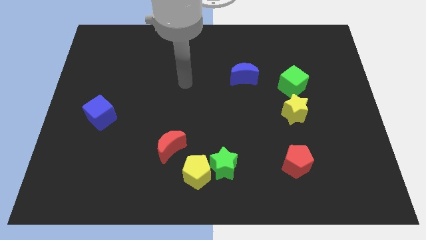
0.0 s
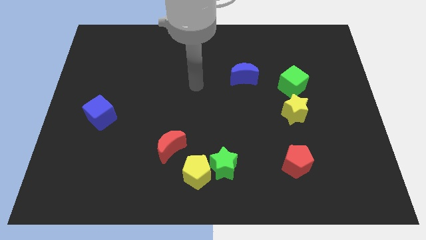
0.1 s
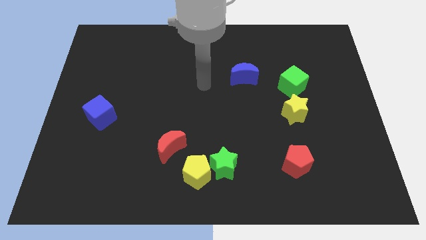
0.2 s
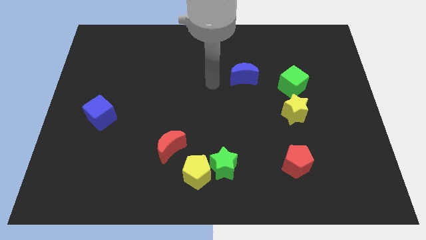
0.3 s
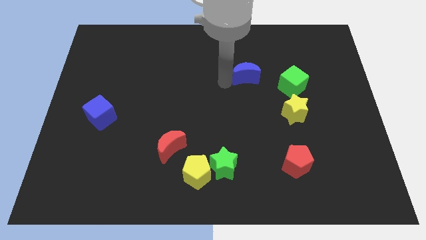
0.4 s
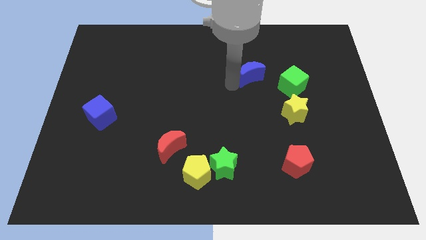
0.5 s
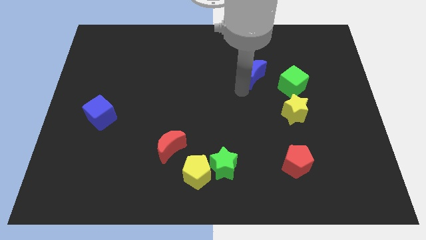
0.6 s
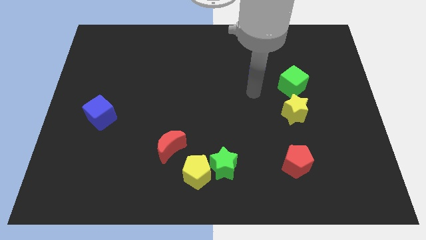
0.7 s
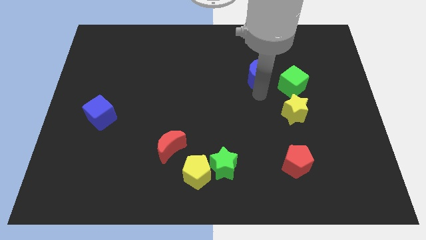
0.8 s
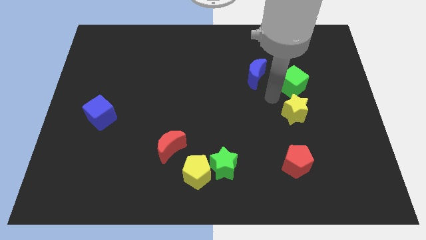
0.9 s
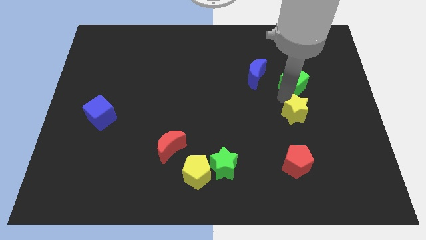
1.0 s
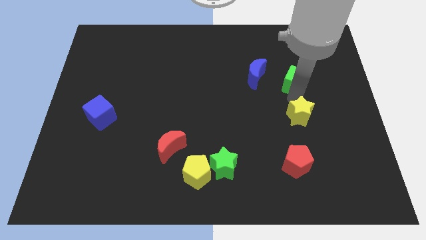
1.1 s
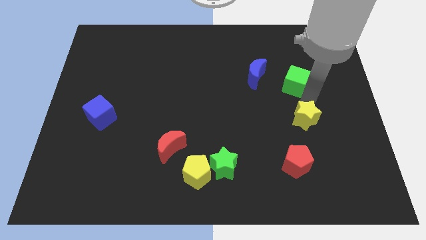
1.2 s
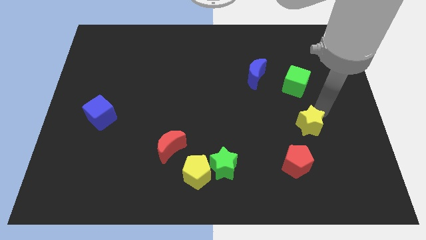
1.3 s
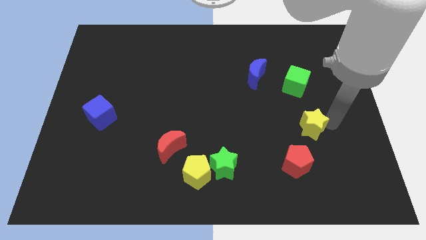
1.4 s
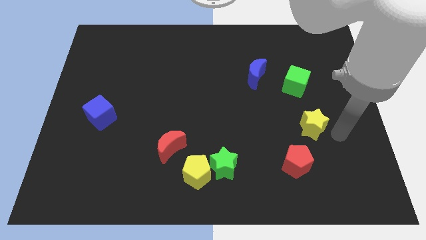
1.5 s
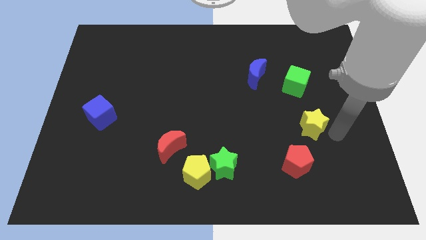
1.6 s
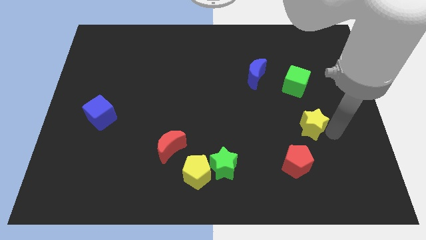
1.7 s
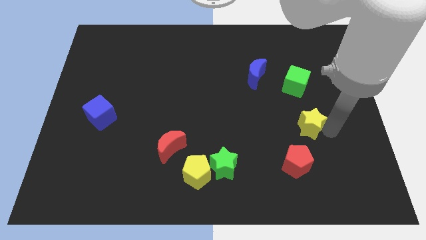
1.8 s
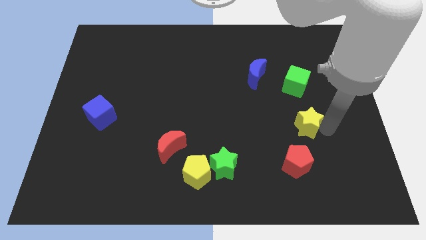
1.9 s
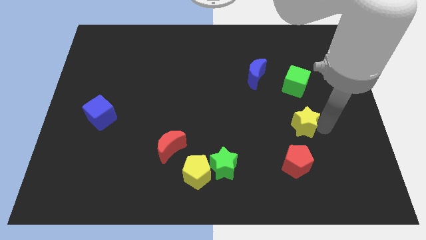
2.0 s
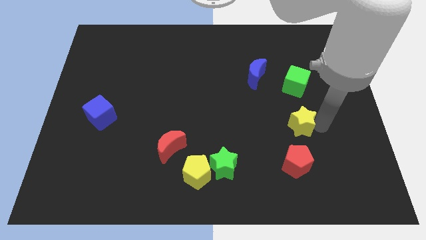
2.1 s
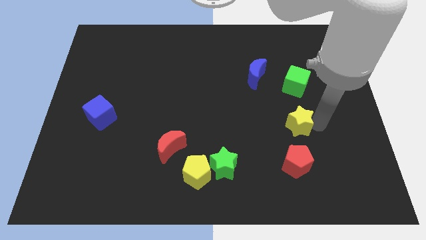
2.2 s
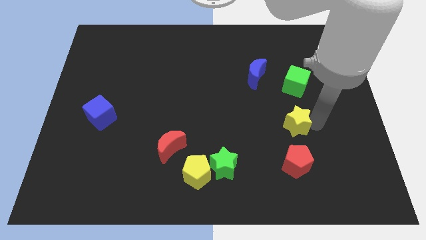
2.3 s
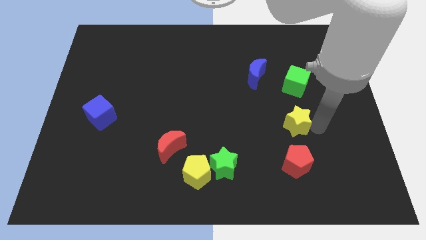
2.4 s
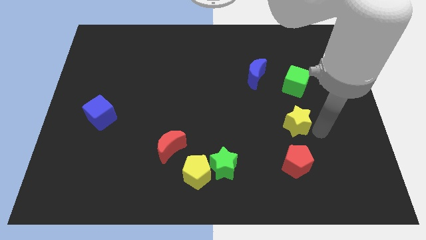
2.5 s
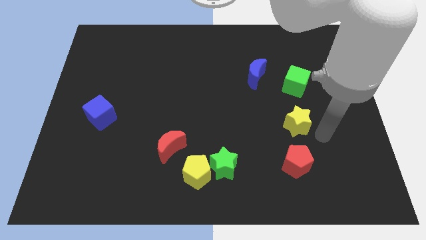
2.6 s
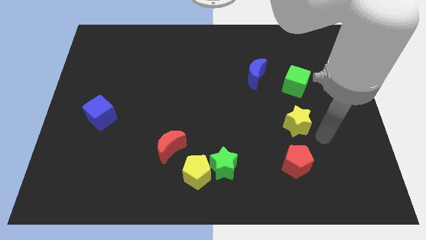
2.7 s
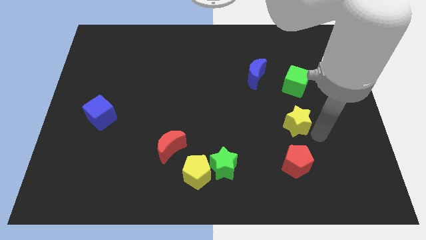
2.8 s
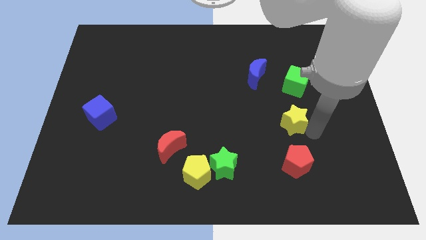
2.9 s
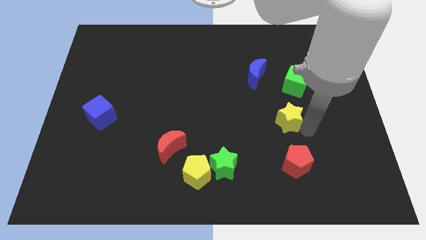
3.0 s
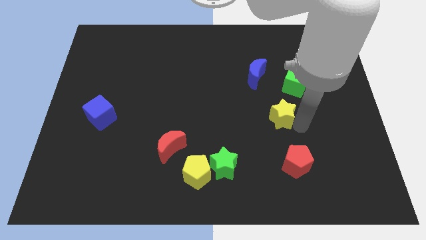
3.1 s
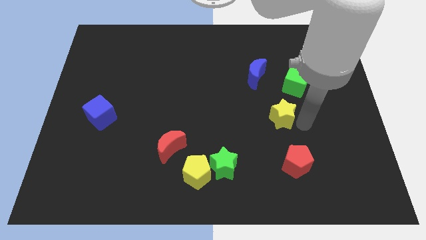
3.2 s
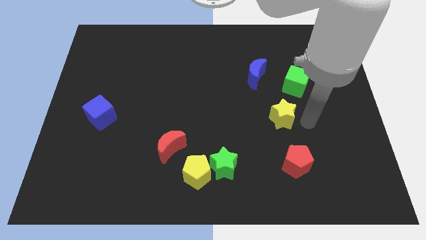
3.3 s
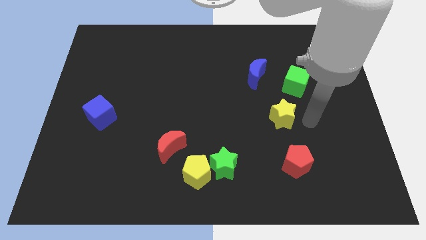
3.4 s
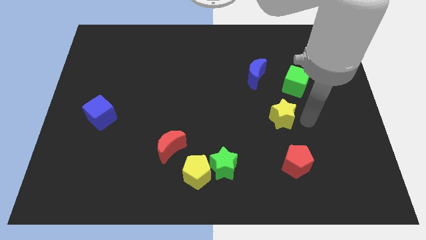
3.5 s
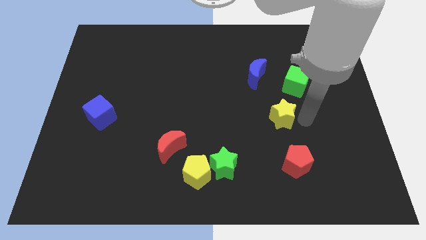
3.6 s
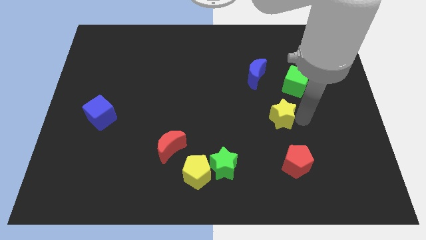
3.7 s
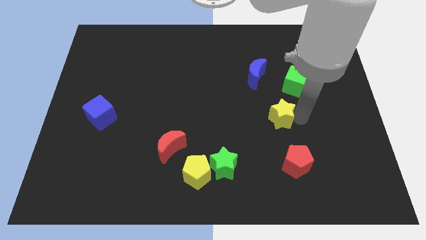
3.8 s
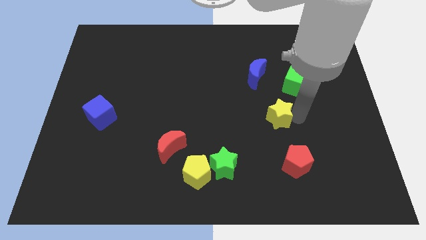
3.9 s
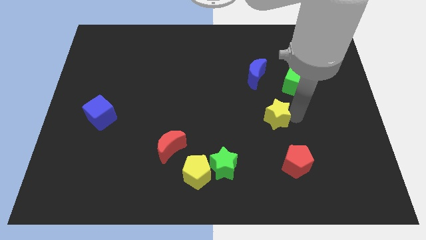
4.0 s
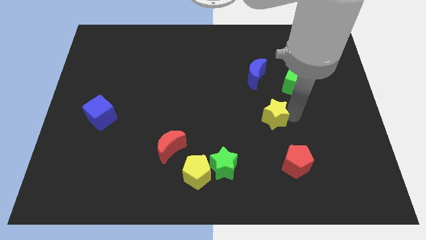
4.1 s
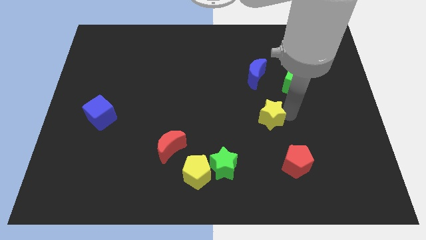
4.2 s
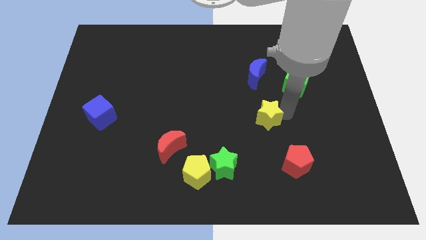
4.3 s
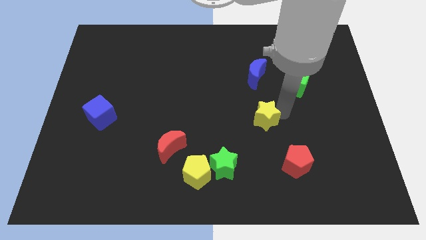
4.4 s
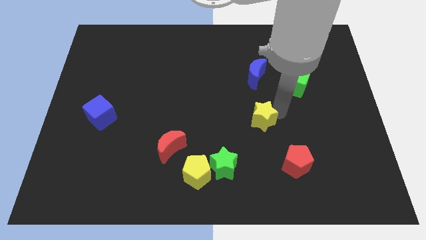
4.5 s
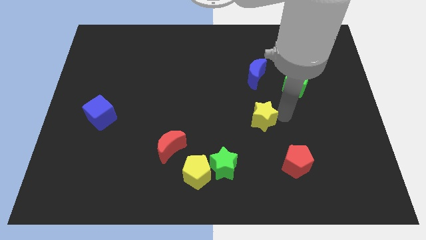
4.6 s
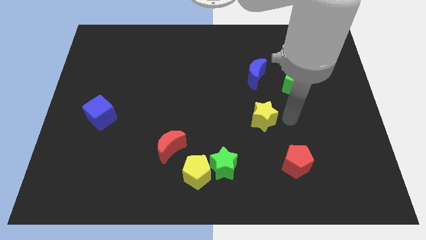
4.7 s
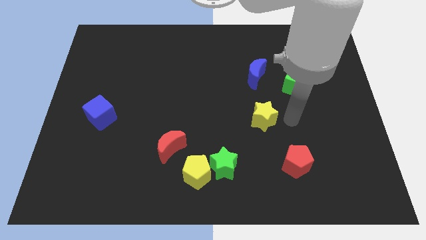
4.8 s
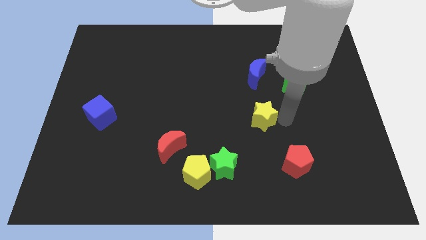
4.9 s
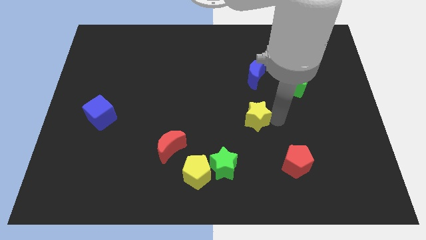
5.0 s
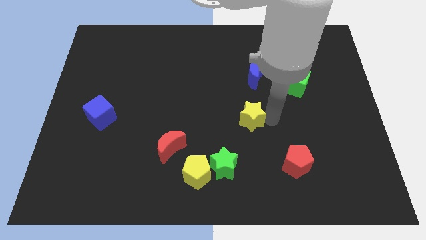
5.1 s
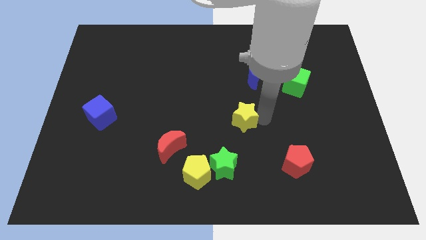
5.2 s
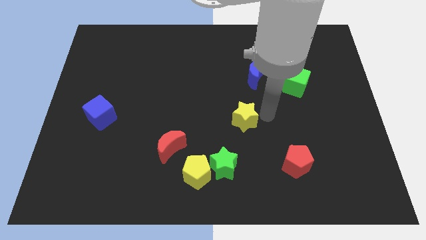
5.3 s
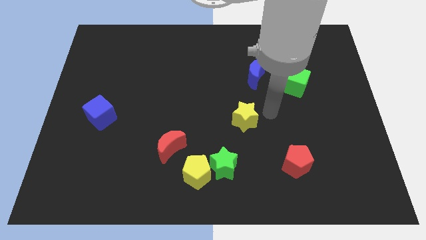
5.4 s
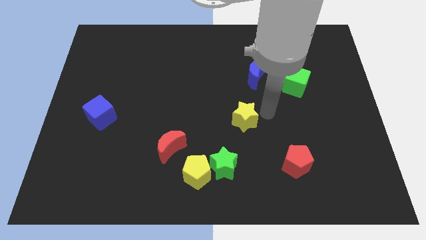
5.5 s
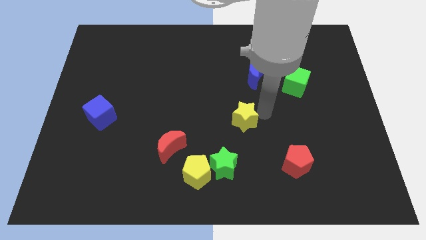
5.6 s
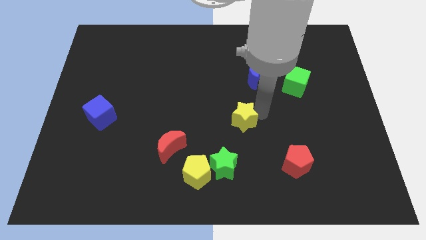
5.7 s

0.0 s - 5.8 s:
put the yellow star to the top of the green star

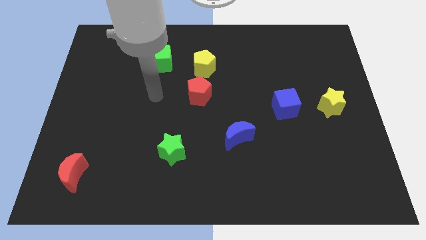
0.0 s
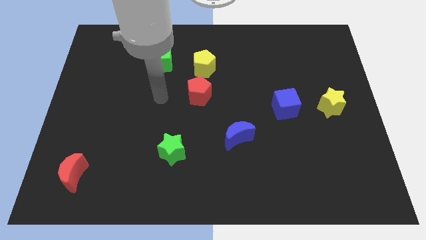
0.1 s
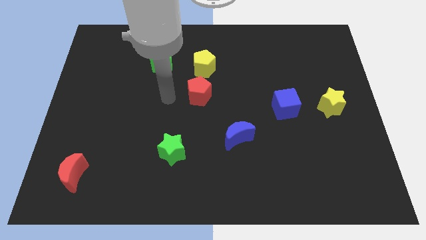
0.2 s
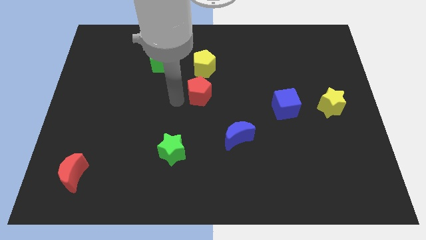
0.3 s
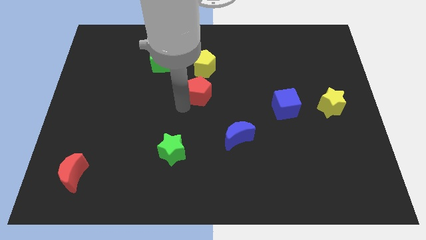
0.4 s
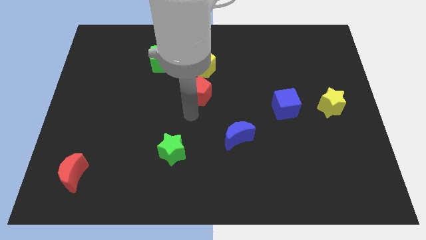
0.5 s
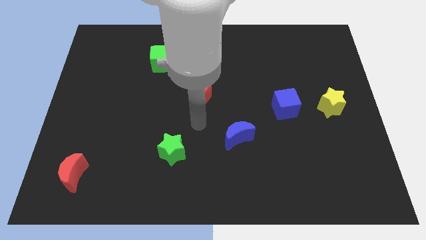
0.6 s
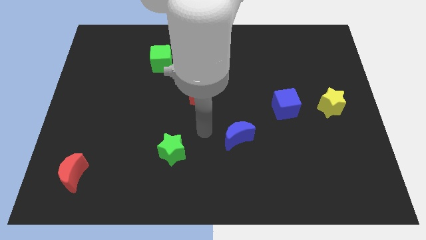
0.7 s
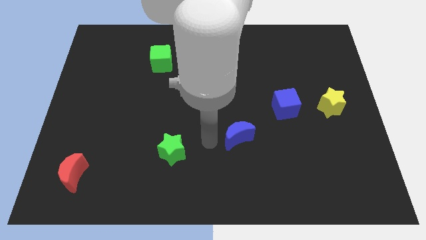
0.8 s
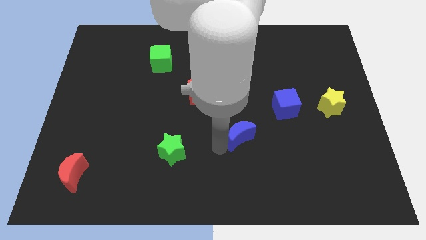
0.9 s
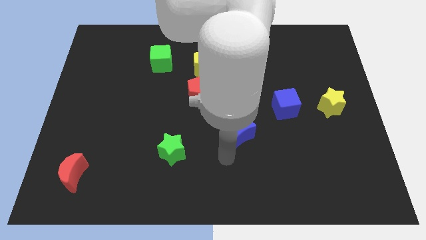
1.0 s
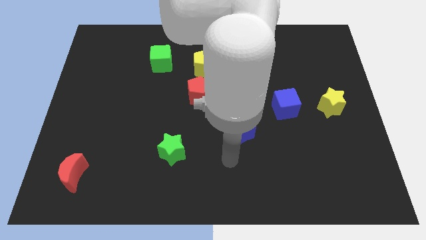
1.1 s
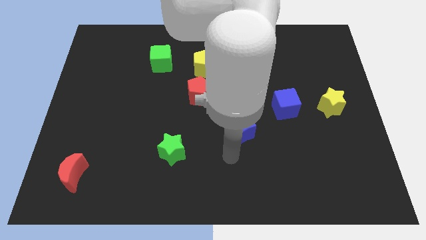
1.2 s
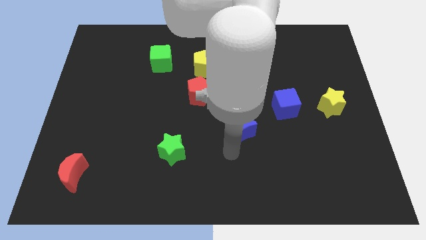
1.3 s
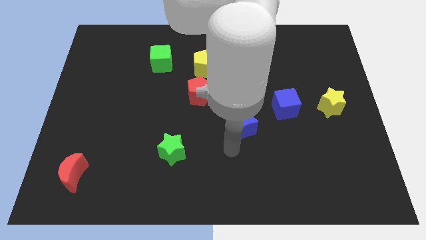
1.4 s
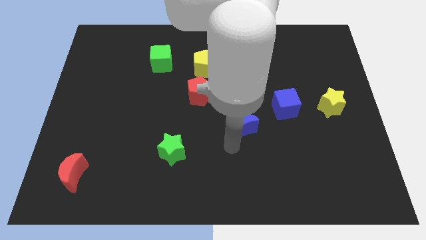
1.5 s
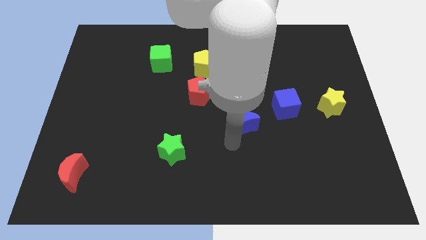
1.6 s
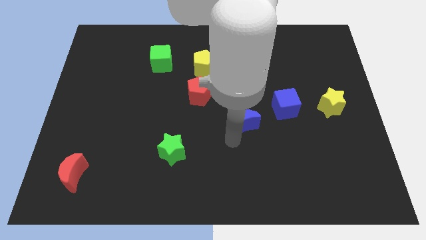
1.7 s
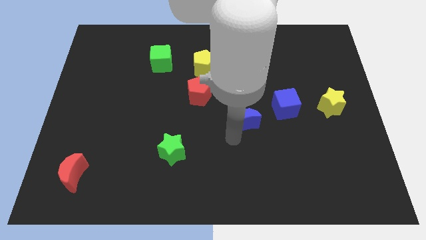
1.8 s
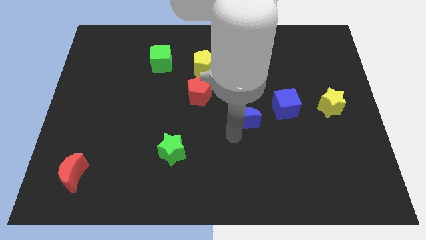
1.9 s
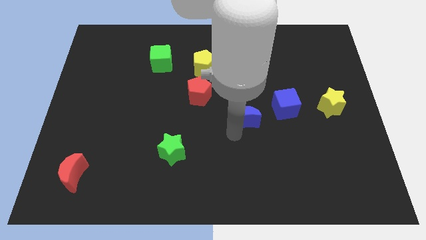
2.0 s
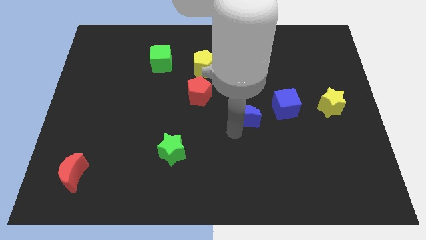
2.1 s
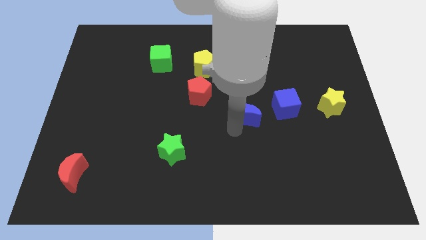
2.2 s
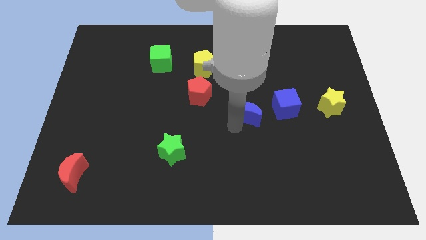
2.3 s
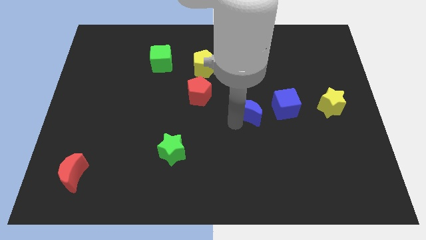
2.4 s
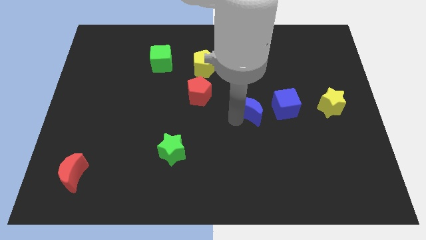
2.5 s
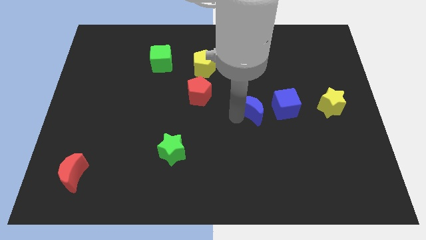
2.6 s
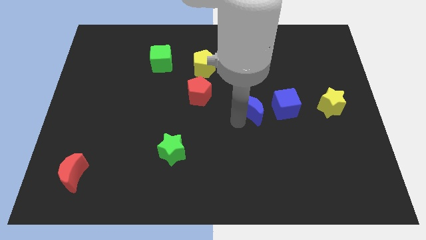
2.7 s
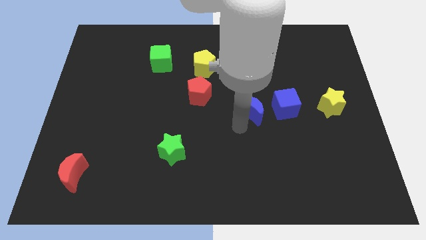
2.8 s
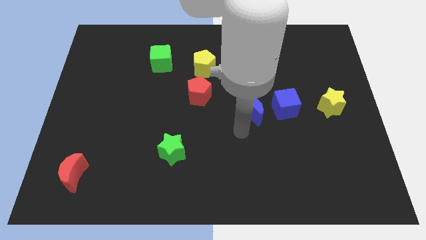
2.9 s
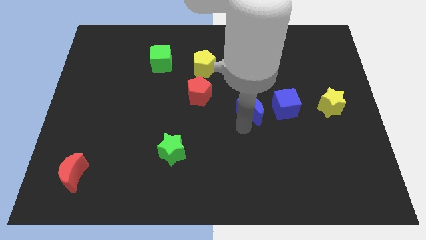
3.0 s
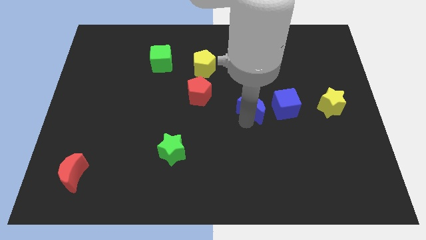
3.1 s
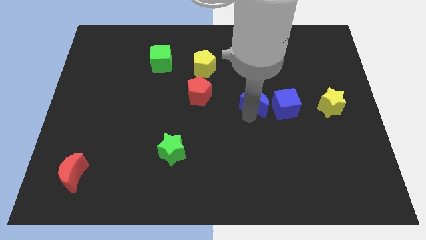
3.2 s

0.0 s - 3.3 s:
put the blue moon to the top left side of the blue cube
